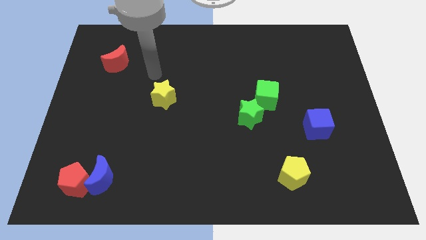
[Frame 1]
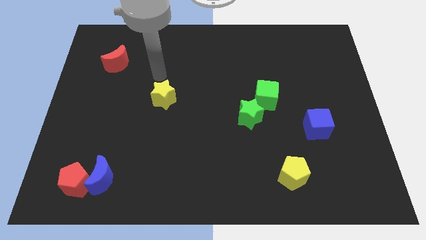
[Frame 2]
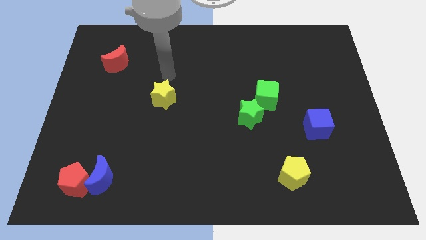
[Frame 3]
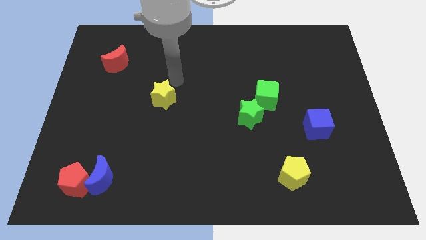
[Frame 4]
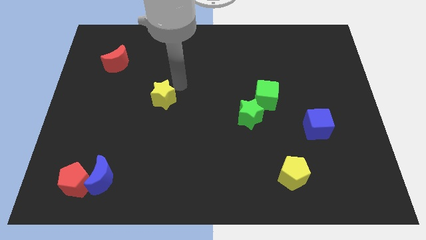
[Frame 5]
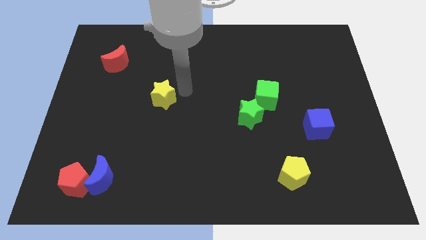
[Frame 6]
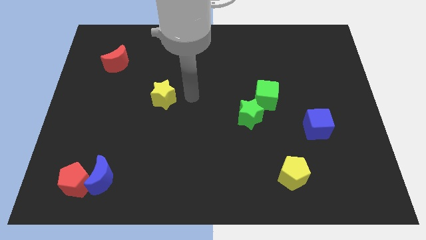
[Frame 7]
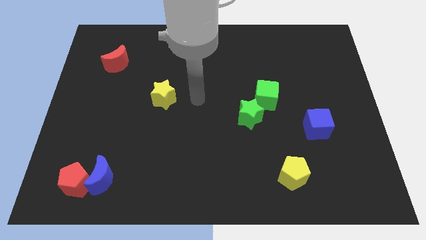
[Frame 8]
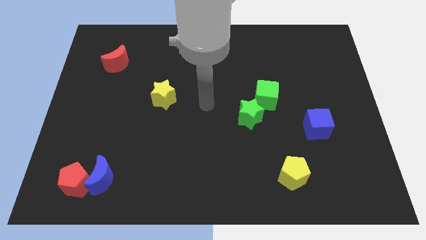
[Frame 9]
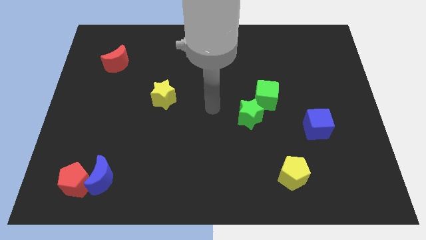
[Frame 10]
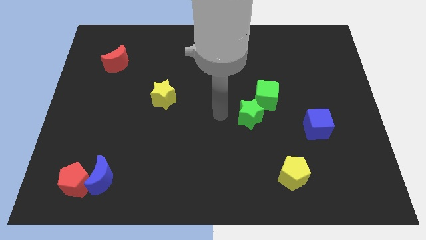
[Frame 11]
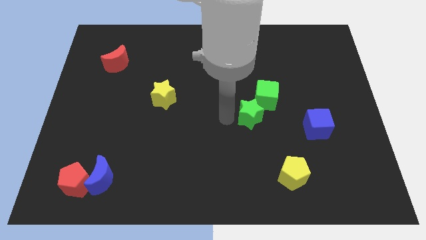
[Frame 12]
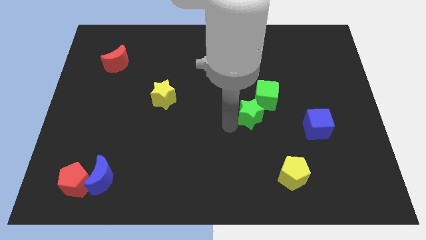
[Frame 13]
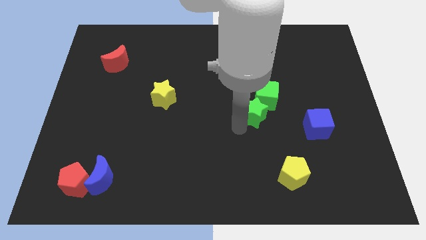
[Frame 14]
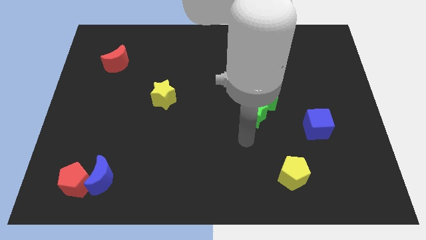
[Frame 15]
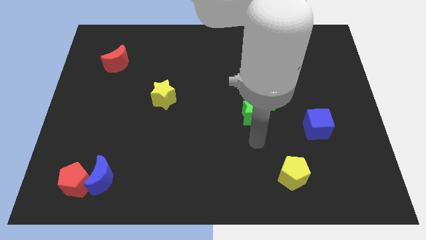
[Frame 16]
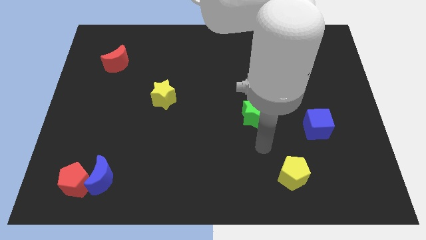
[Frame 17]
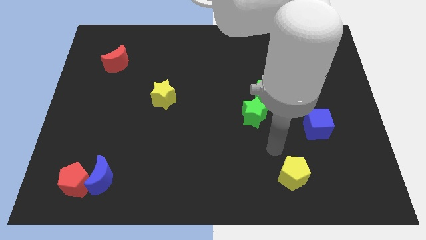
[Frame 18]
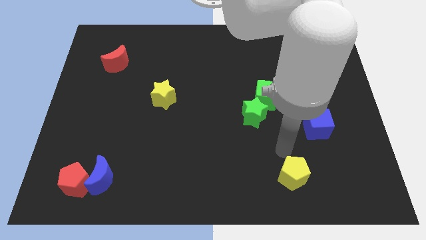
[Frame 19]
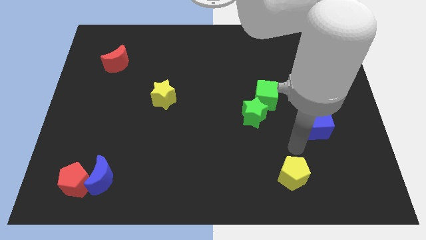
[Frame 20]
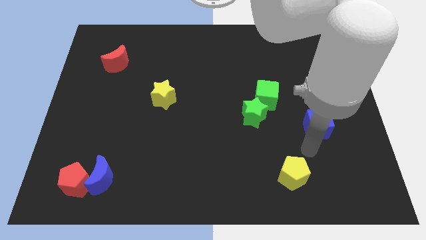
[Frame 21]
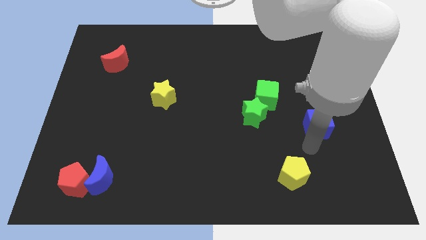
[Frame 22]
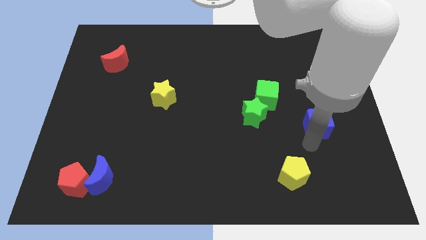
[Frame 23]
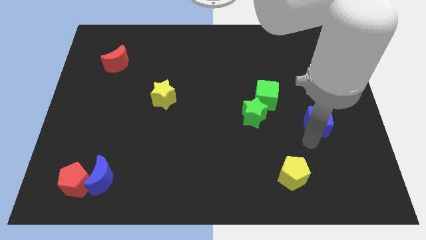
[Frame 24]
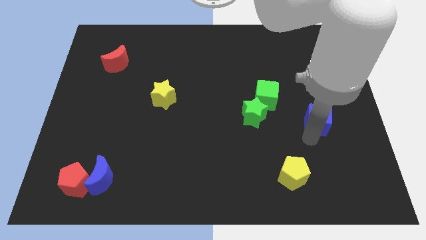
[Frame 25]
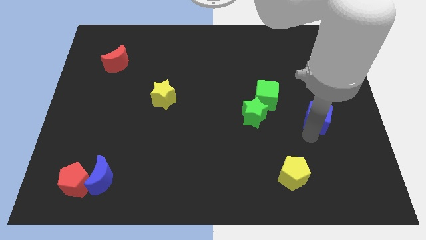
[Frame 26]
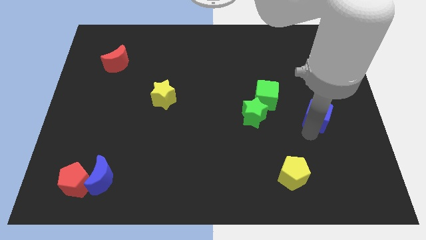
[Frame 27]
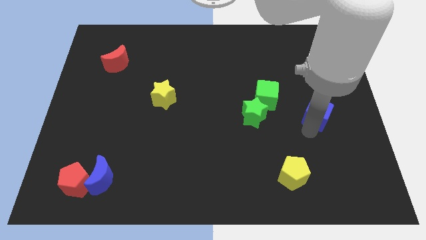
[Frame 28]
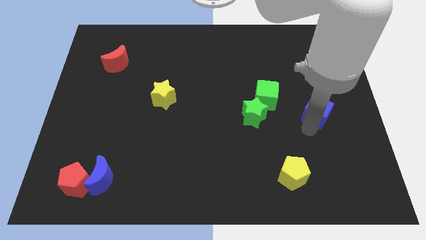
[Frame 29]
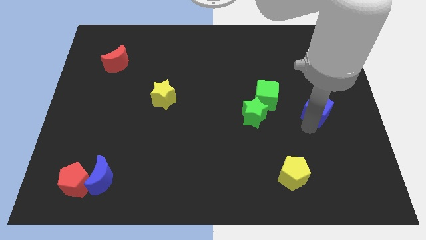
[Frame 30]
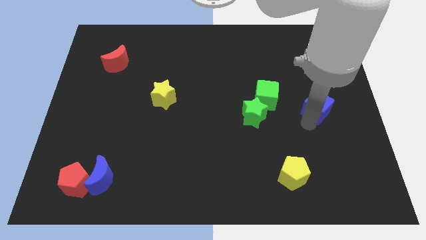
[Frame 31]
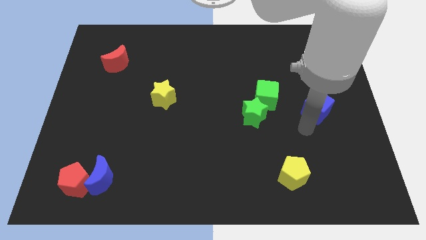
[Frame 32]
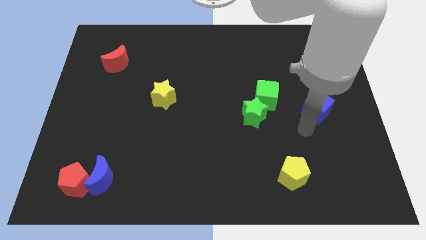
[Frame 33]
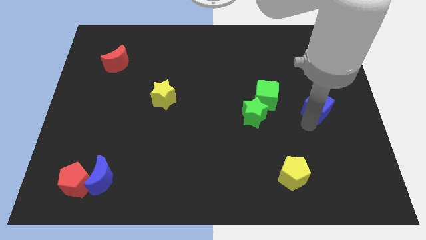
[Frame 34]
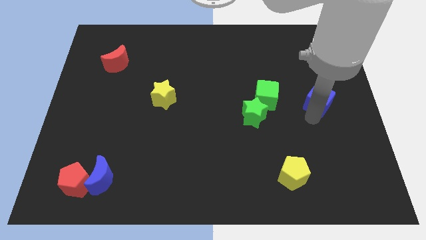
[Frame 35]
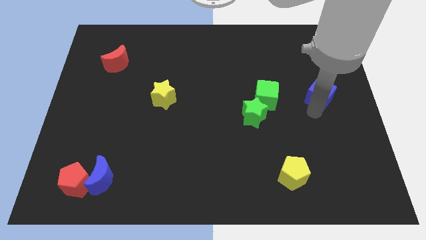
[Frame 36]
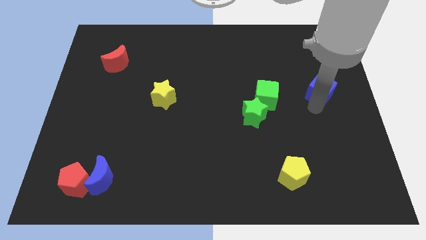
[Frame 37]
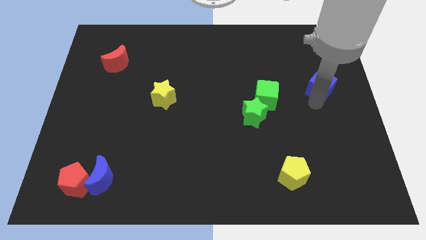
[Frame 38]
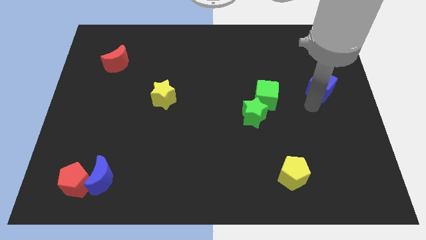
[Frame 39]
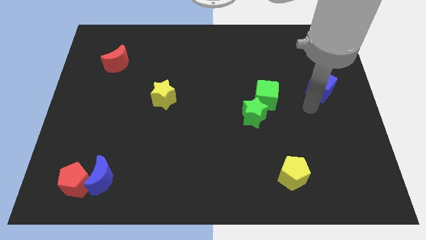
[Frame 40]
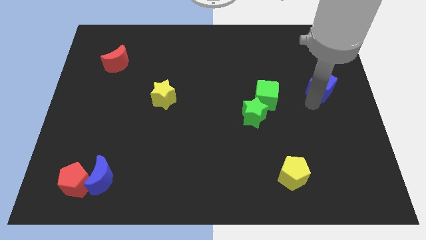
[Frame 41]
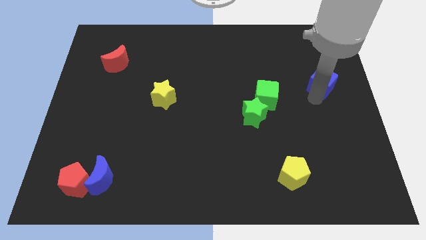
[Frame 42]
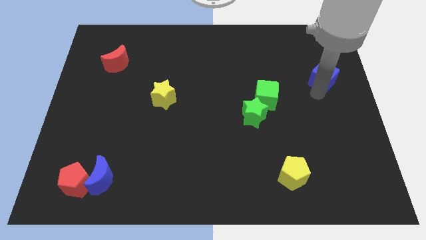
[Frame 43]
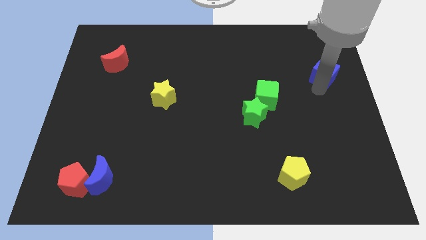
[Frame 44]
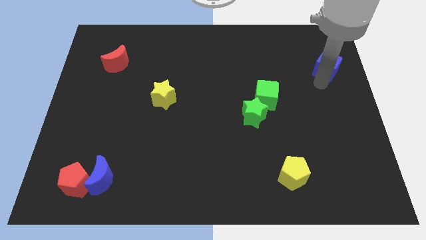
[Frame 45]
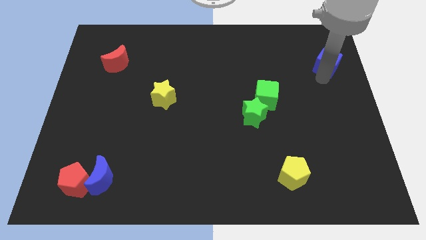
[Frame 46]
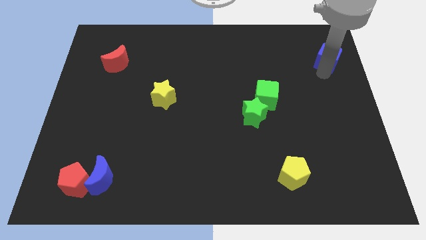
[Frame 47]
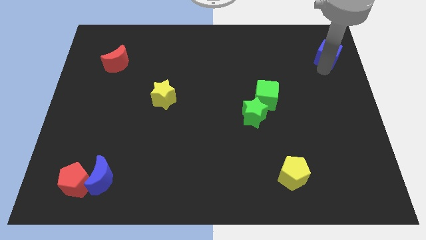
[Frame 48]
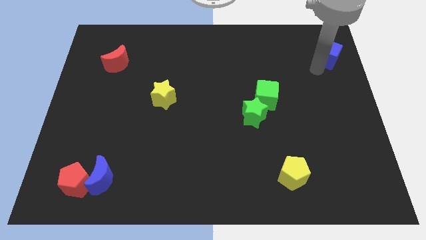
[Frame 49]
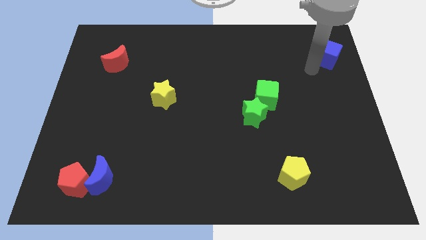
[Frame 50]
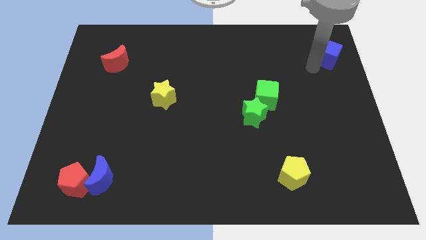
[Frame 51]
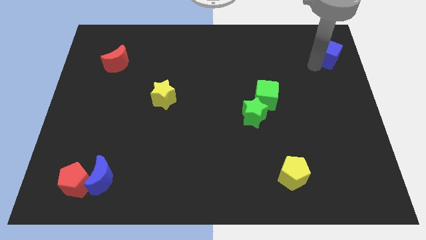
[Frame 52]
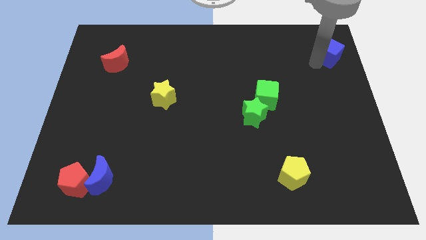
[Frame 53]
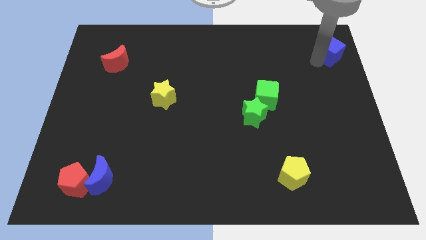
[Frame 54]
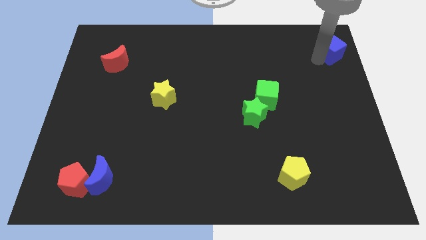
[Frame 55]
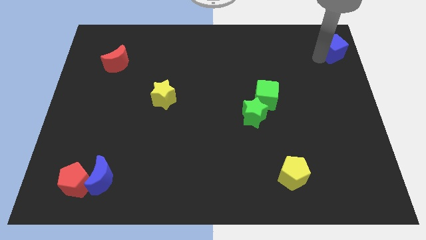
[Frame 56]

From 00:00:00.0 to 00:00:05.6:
slide the blue cube to the top right of the board
